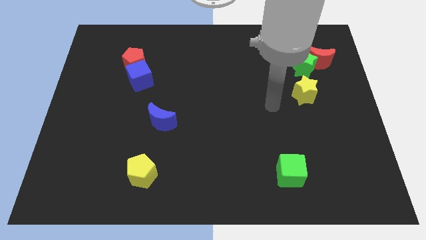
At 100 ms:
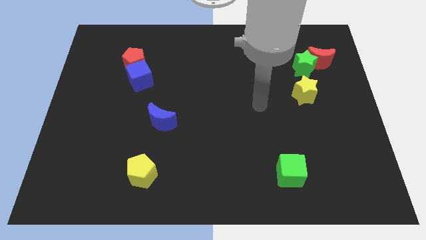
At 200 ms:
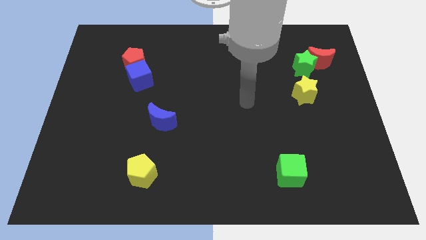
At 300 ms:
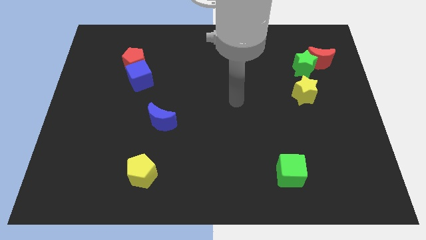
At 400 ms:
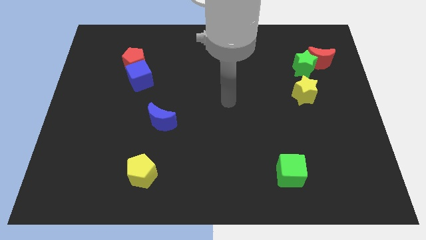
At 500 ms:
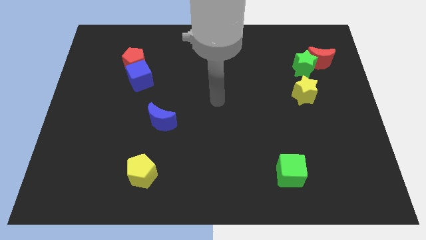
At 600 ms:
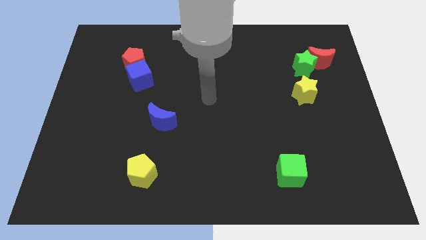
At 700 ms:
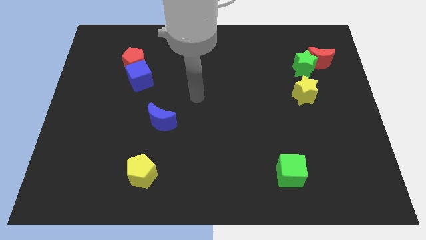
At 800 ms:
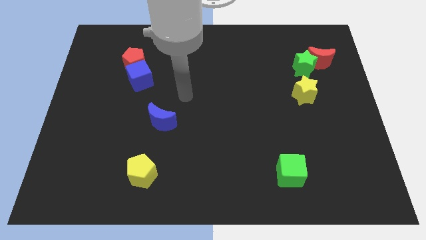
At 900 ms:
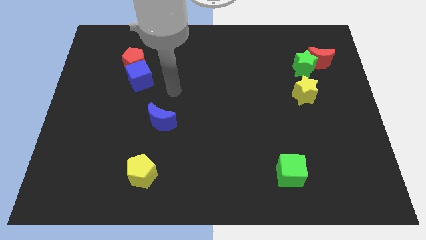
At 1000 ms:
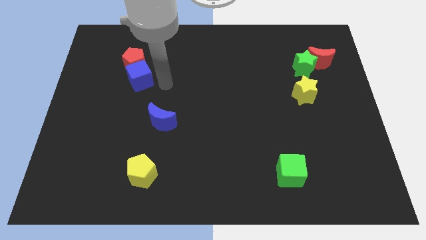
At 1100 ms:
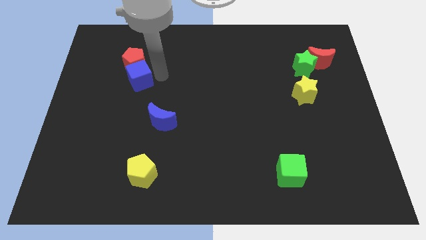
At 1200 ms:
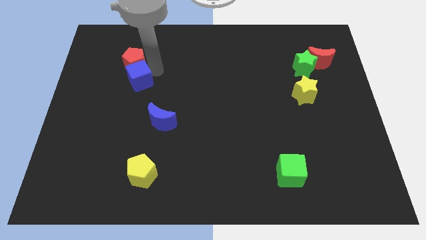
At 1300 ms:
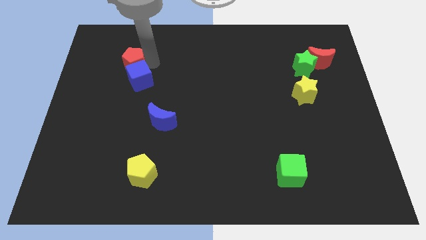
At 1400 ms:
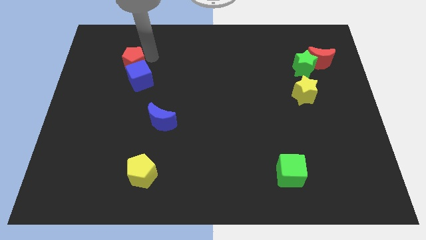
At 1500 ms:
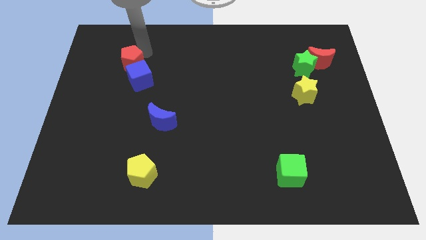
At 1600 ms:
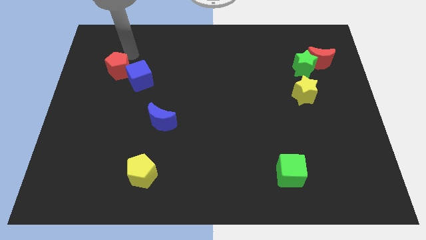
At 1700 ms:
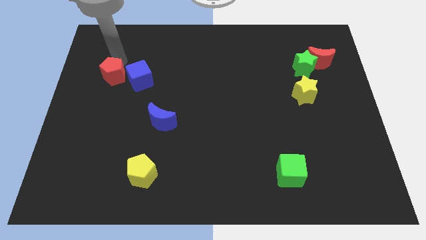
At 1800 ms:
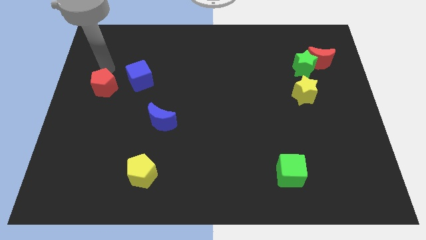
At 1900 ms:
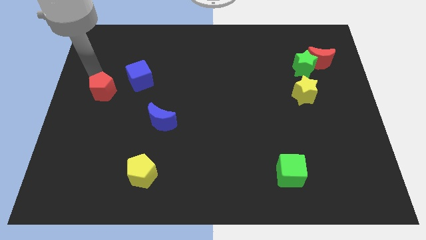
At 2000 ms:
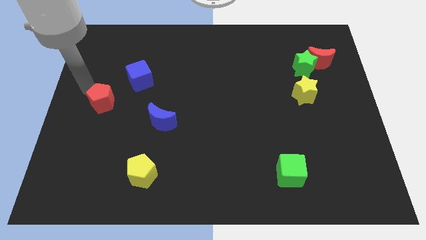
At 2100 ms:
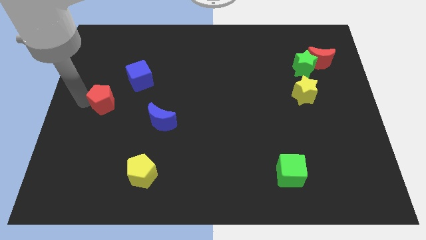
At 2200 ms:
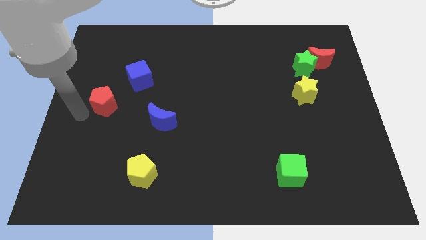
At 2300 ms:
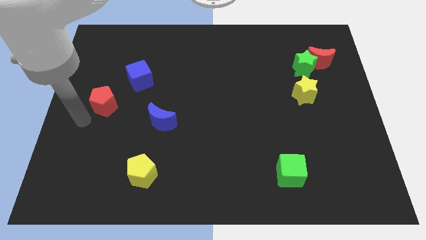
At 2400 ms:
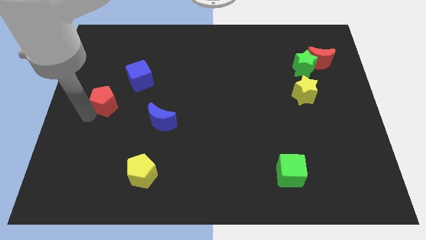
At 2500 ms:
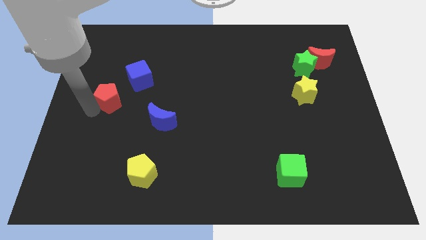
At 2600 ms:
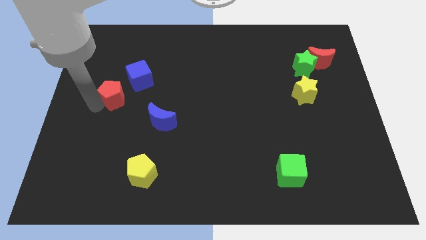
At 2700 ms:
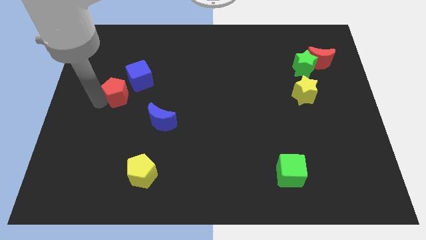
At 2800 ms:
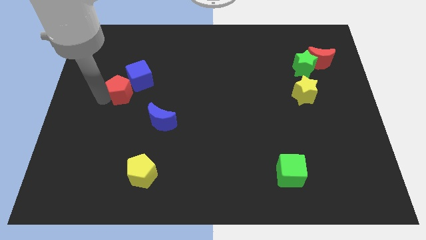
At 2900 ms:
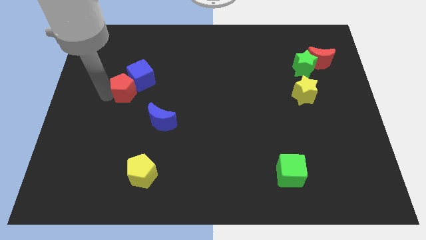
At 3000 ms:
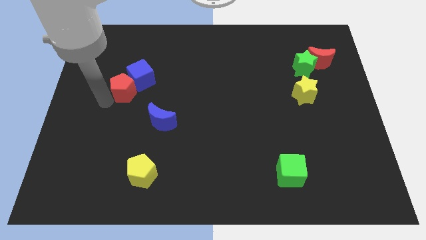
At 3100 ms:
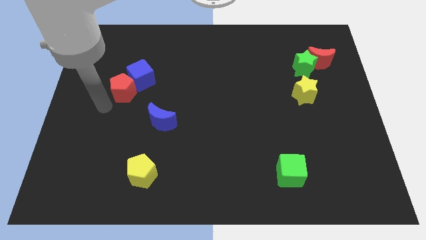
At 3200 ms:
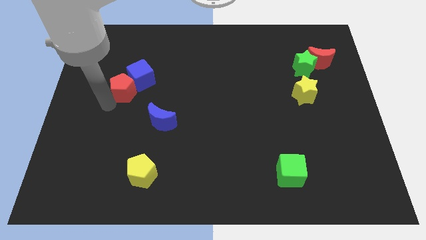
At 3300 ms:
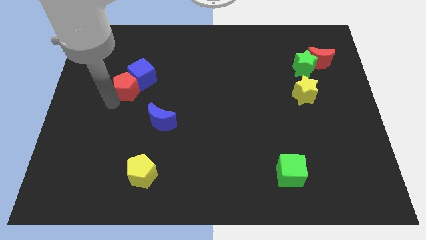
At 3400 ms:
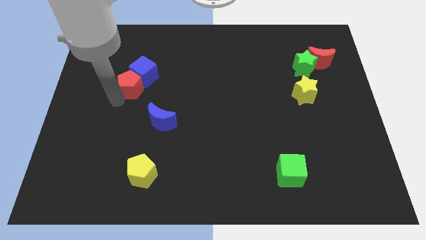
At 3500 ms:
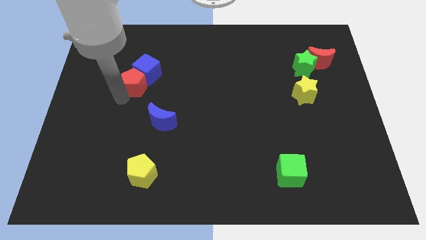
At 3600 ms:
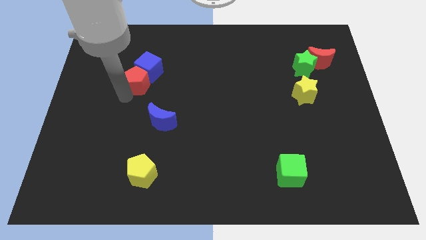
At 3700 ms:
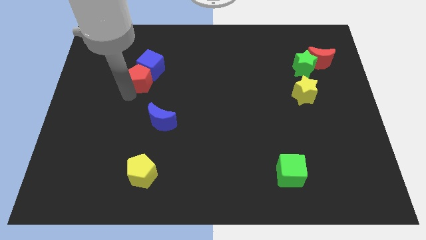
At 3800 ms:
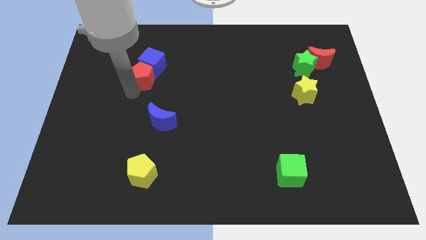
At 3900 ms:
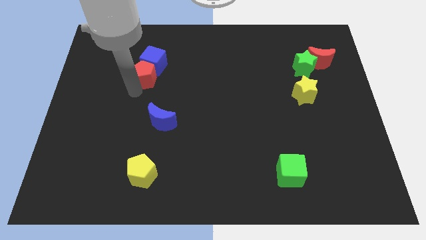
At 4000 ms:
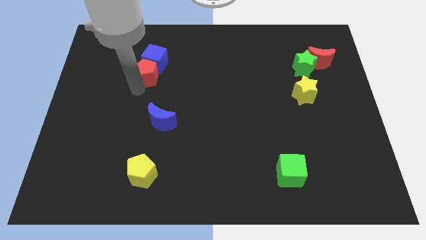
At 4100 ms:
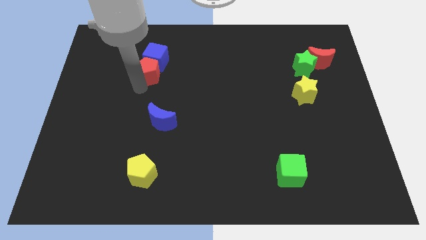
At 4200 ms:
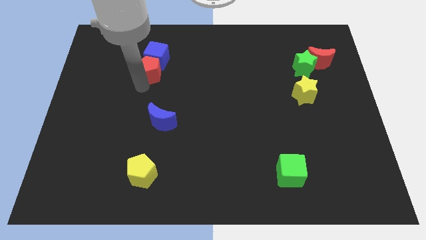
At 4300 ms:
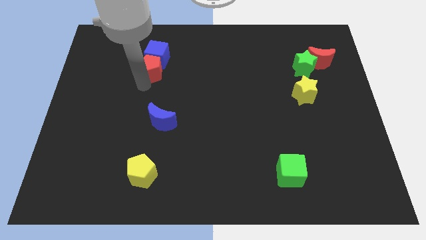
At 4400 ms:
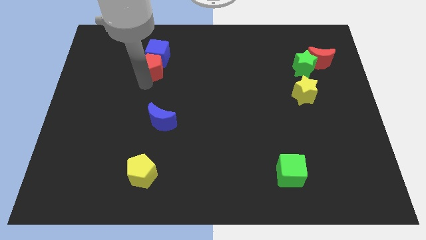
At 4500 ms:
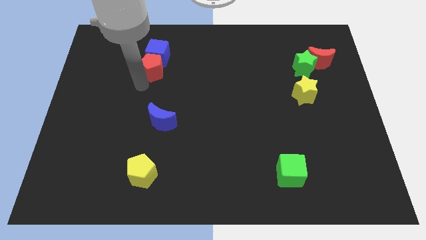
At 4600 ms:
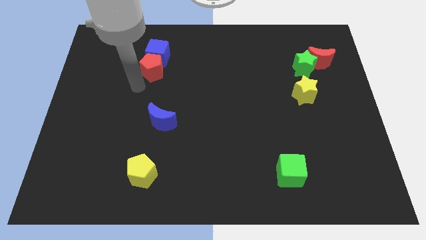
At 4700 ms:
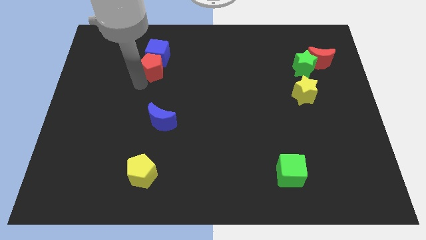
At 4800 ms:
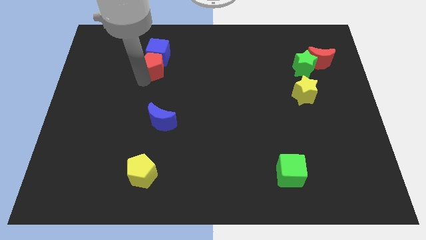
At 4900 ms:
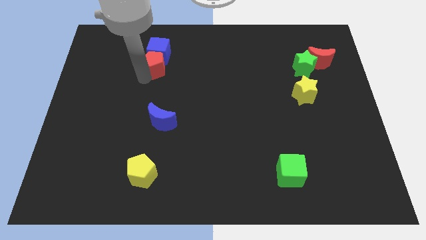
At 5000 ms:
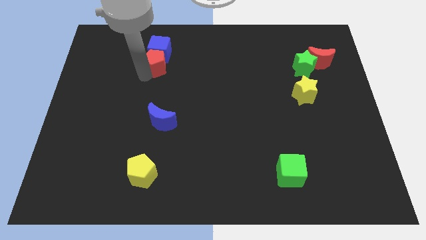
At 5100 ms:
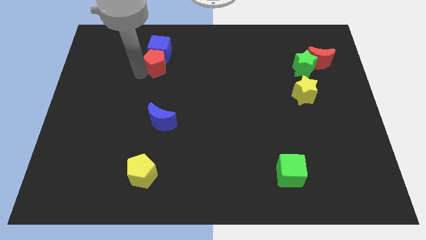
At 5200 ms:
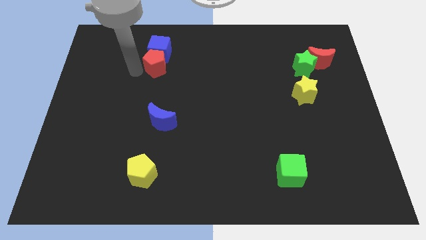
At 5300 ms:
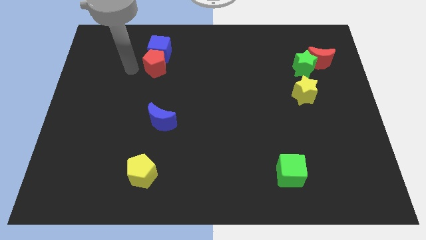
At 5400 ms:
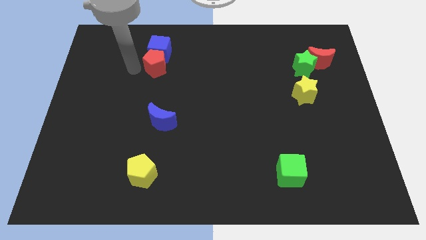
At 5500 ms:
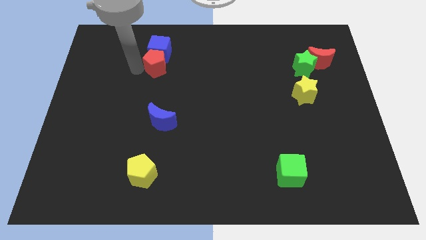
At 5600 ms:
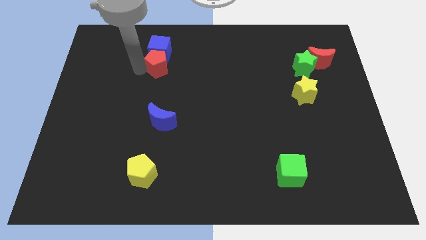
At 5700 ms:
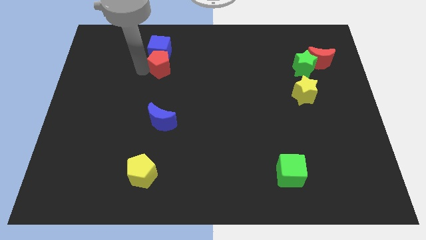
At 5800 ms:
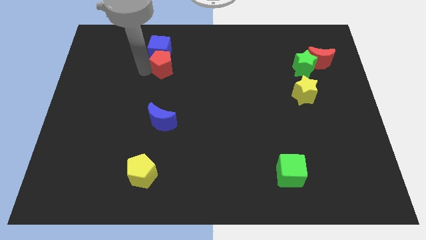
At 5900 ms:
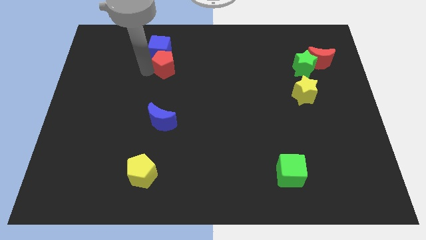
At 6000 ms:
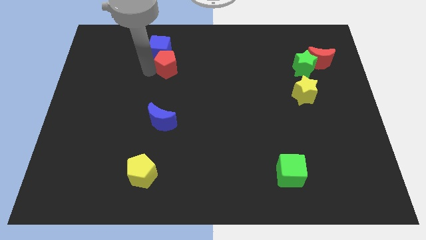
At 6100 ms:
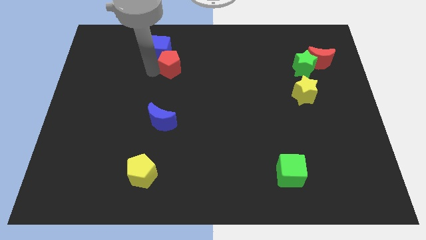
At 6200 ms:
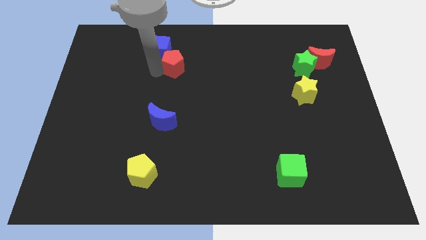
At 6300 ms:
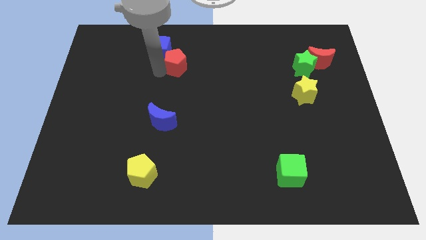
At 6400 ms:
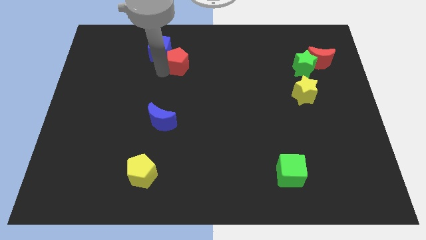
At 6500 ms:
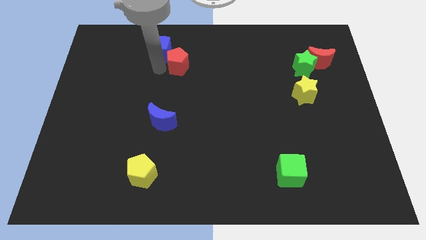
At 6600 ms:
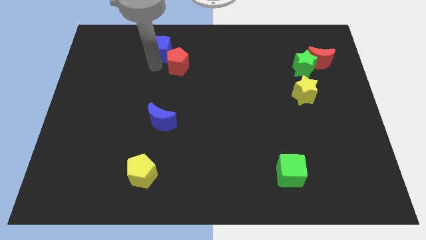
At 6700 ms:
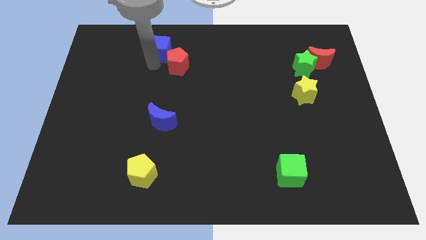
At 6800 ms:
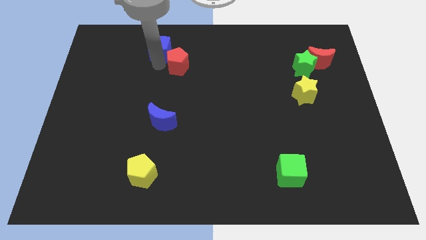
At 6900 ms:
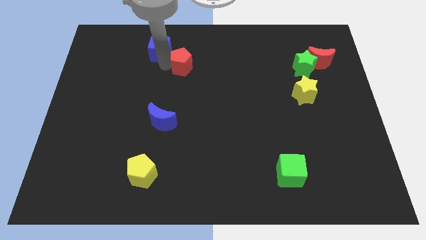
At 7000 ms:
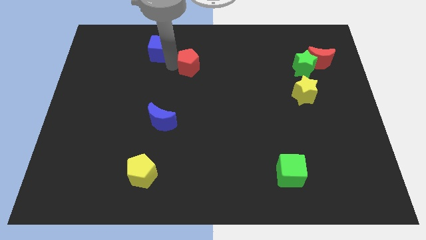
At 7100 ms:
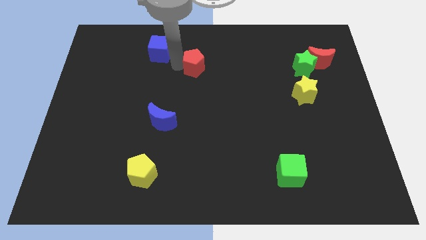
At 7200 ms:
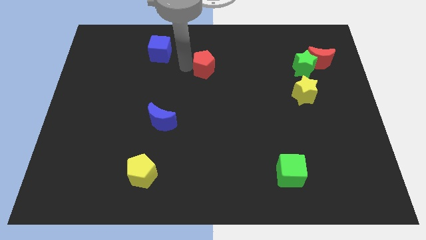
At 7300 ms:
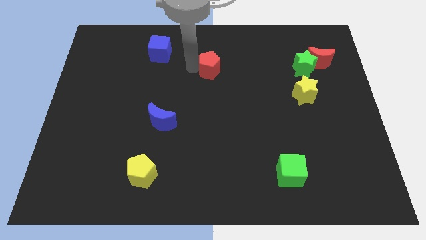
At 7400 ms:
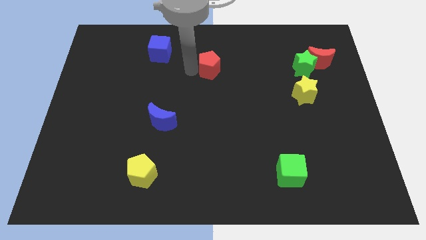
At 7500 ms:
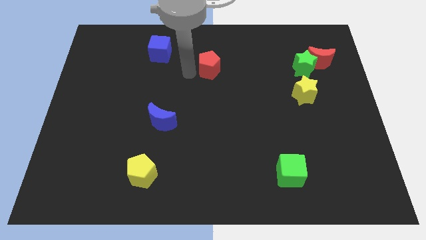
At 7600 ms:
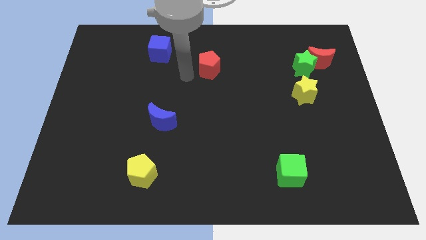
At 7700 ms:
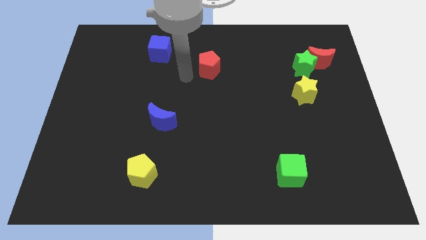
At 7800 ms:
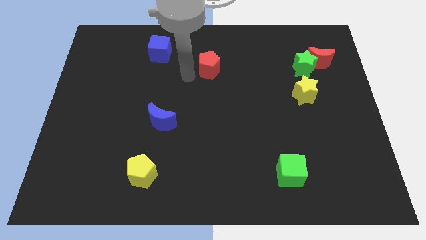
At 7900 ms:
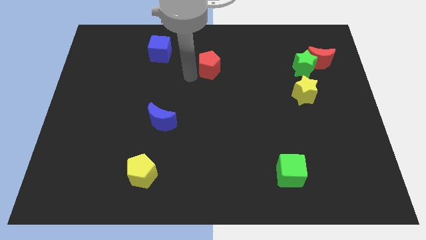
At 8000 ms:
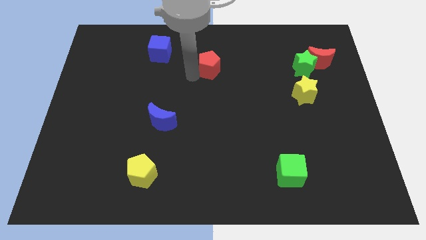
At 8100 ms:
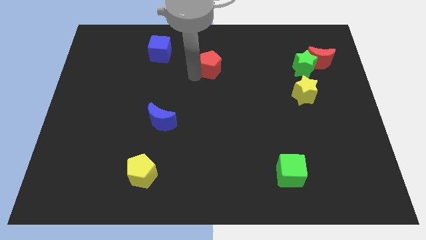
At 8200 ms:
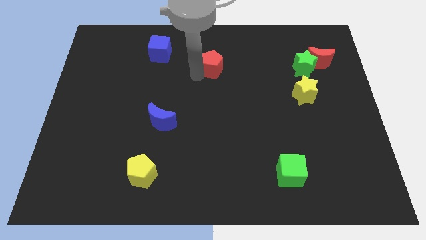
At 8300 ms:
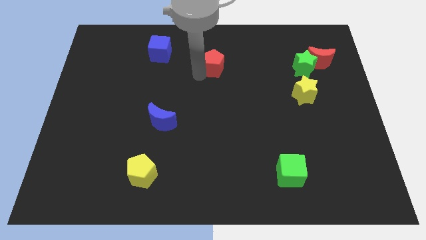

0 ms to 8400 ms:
slide the red pentagon right
